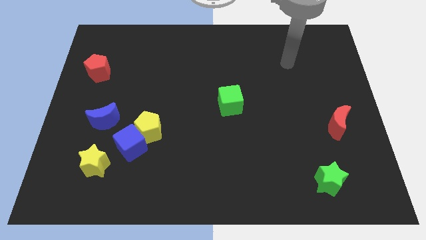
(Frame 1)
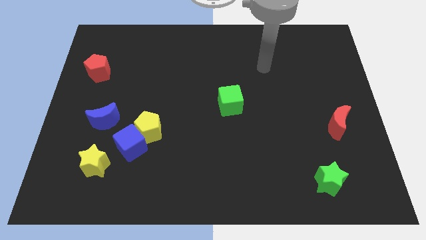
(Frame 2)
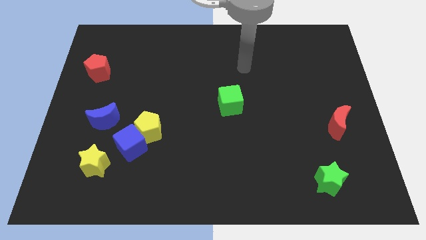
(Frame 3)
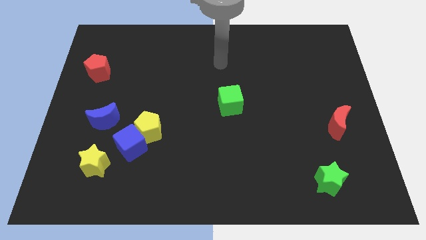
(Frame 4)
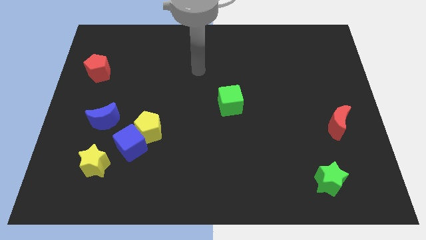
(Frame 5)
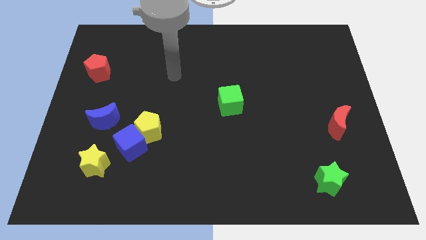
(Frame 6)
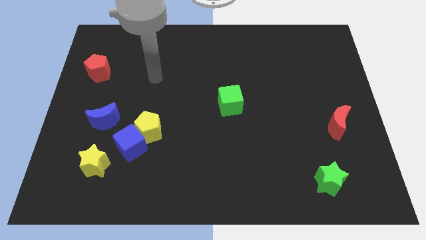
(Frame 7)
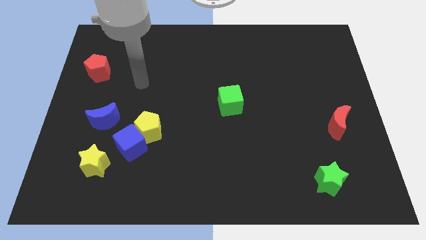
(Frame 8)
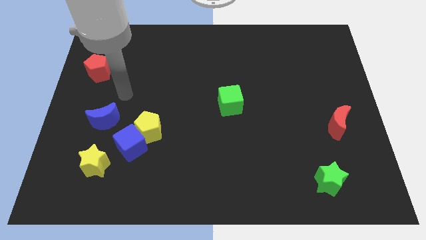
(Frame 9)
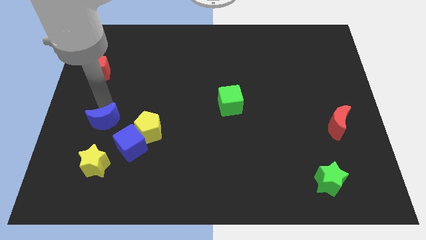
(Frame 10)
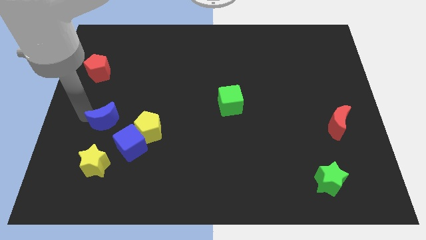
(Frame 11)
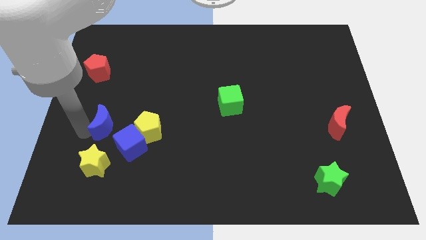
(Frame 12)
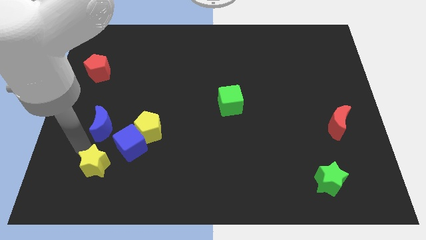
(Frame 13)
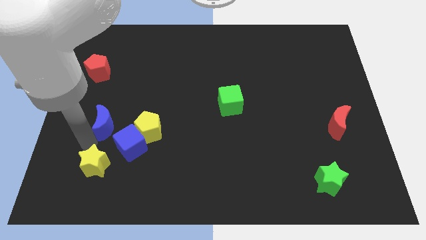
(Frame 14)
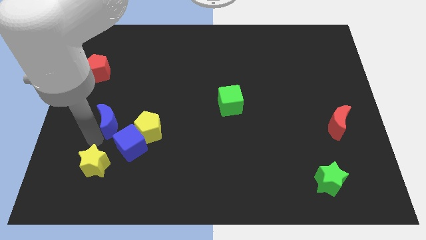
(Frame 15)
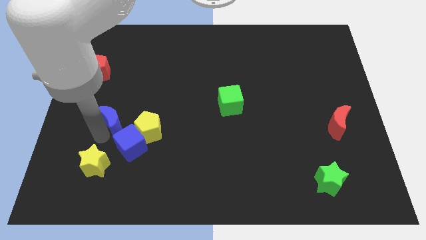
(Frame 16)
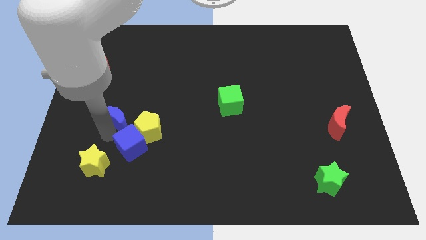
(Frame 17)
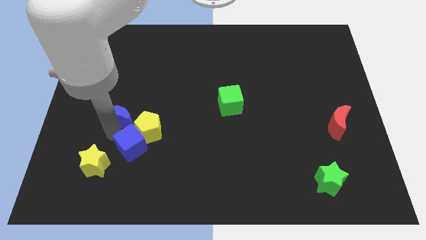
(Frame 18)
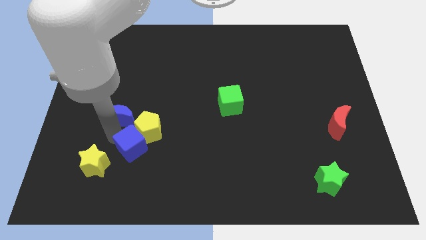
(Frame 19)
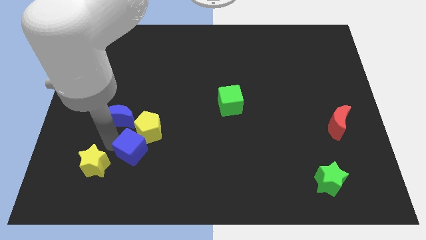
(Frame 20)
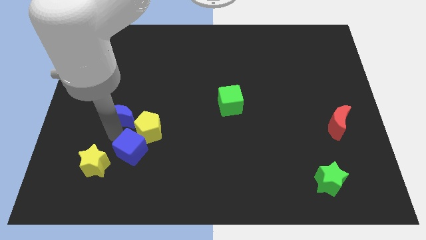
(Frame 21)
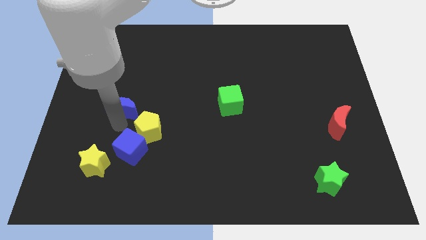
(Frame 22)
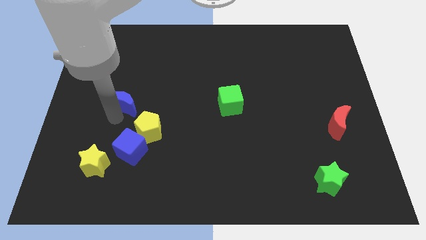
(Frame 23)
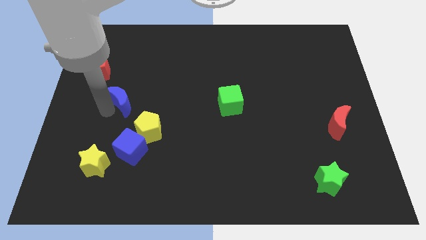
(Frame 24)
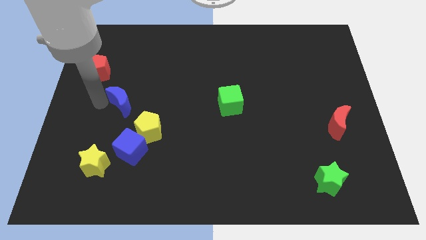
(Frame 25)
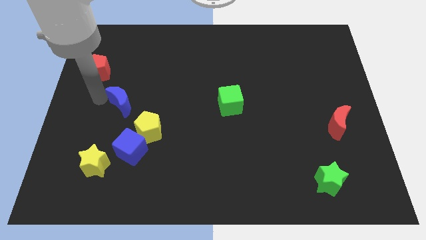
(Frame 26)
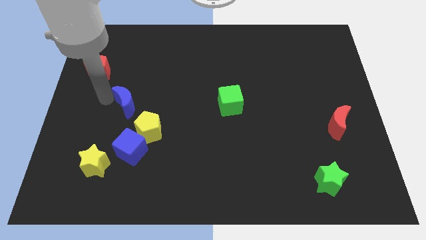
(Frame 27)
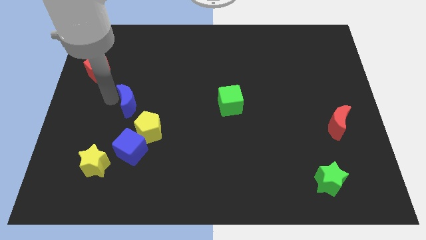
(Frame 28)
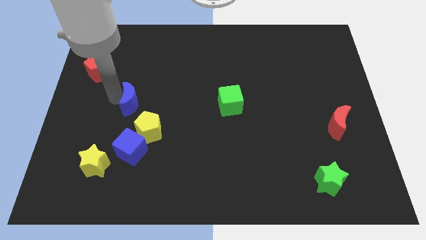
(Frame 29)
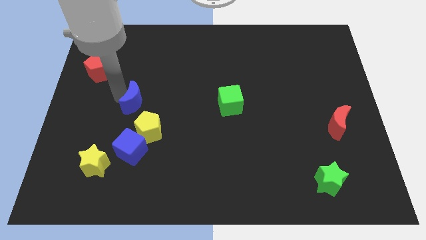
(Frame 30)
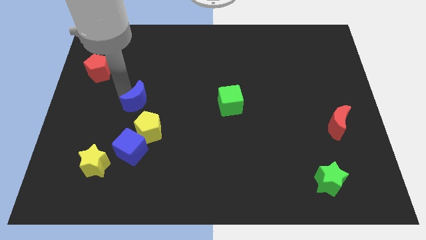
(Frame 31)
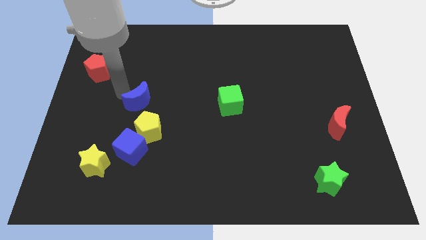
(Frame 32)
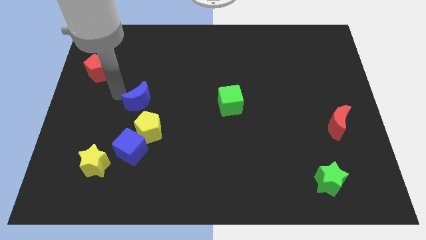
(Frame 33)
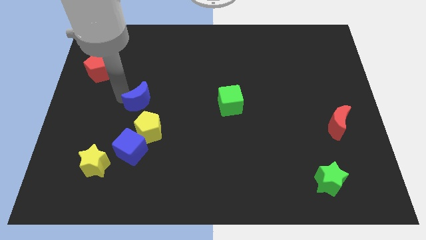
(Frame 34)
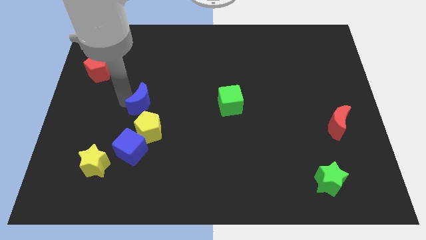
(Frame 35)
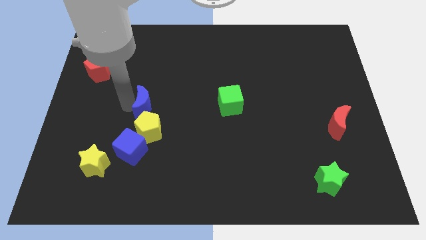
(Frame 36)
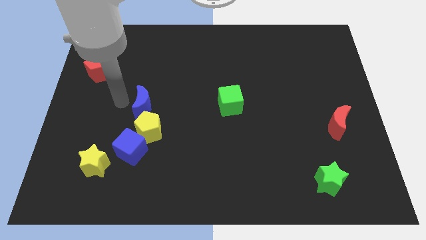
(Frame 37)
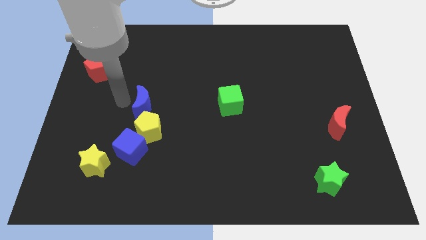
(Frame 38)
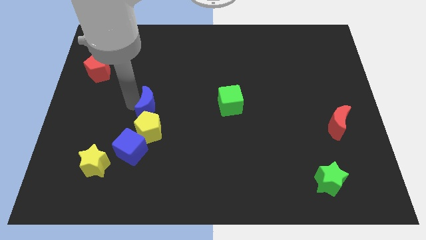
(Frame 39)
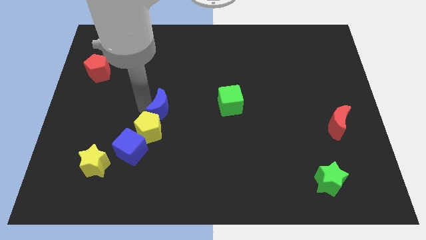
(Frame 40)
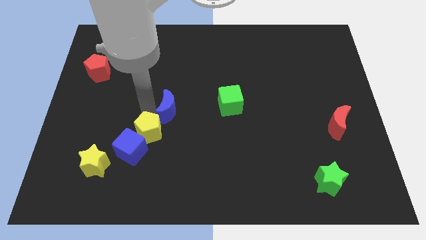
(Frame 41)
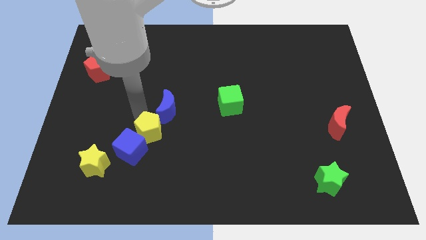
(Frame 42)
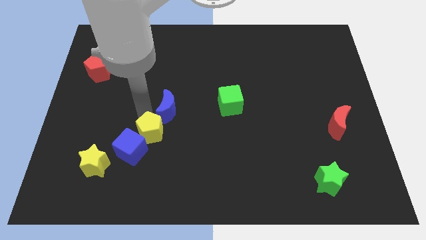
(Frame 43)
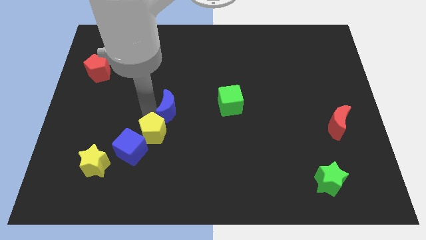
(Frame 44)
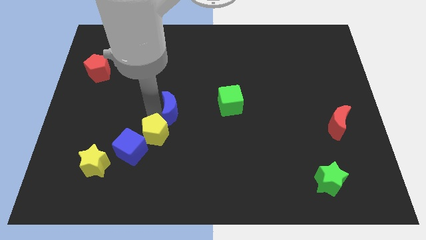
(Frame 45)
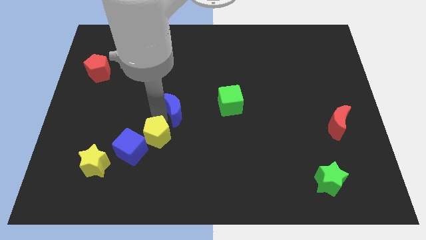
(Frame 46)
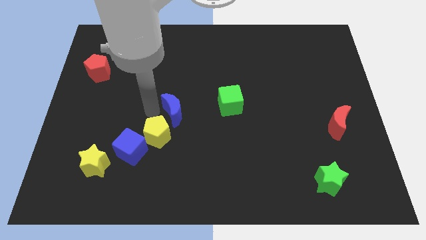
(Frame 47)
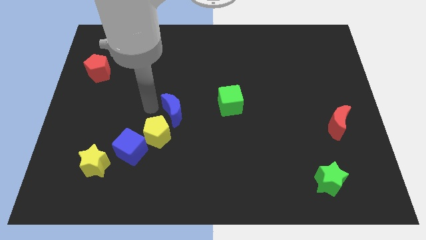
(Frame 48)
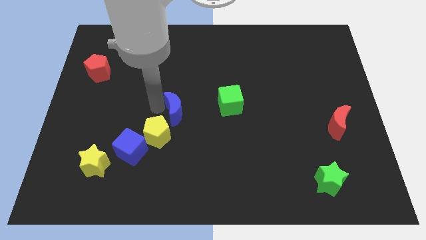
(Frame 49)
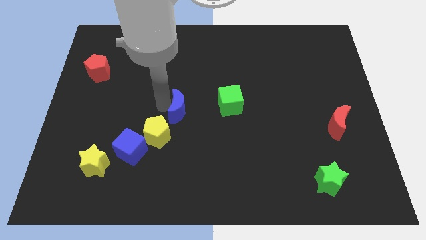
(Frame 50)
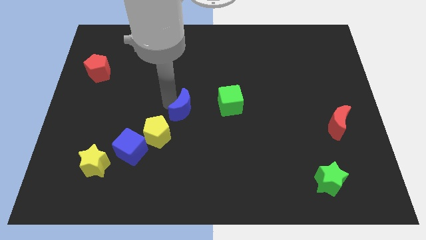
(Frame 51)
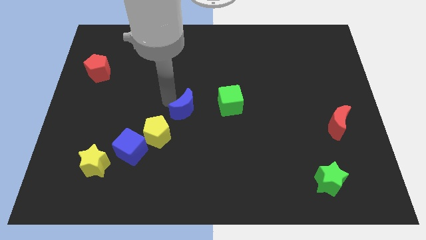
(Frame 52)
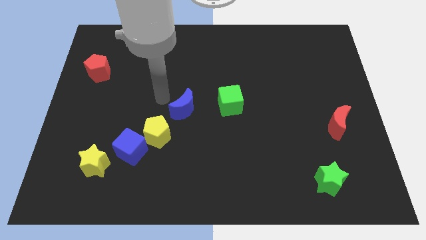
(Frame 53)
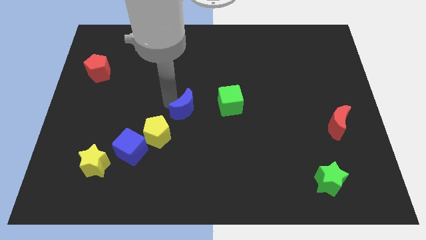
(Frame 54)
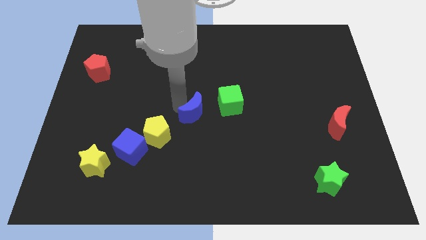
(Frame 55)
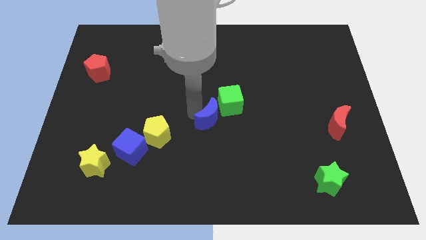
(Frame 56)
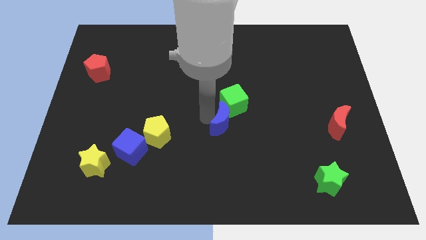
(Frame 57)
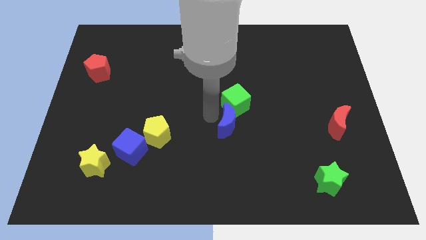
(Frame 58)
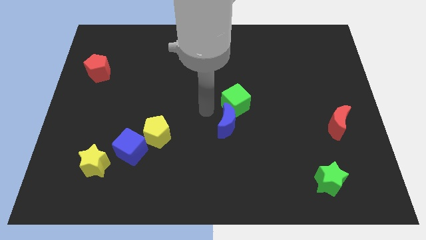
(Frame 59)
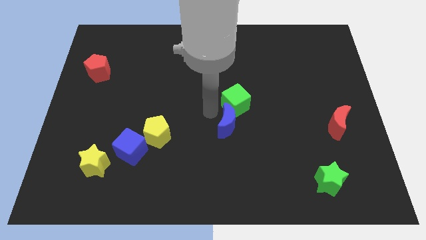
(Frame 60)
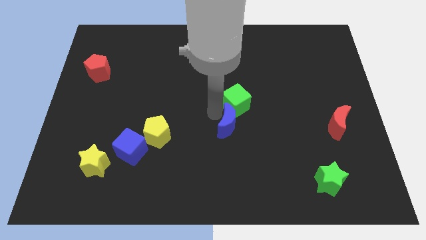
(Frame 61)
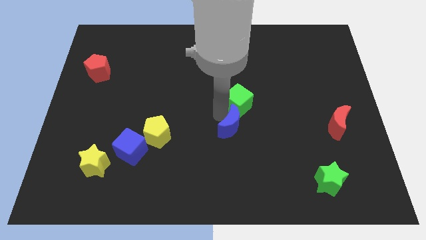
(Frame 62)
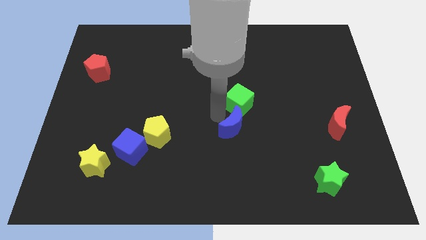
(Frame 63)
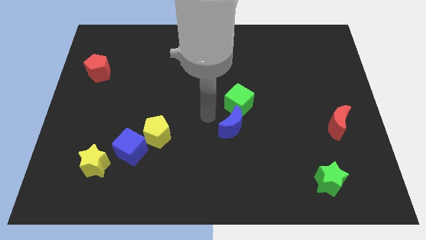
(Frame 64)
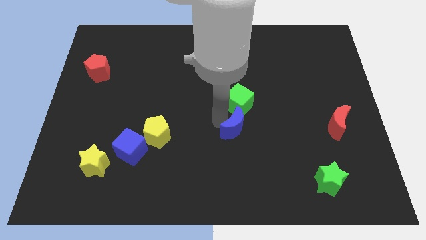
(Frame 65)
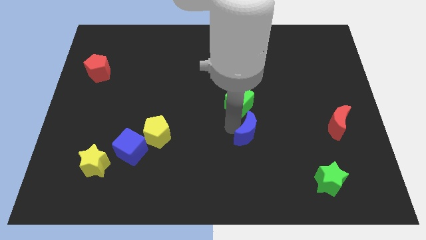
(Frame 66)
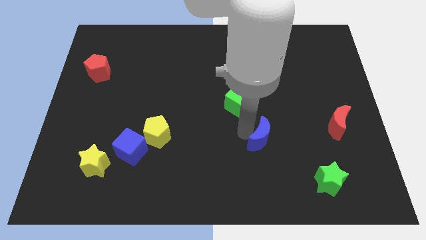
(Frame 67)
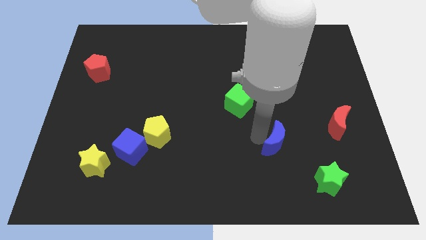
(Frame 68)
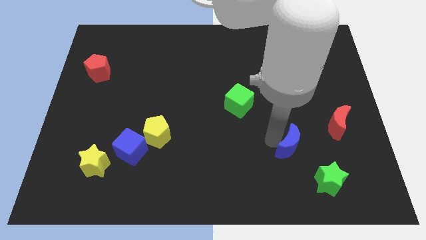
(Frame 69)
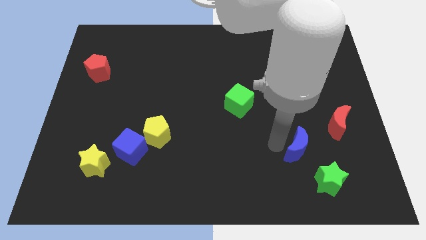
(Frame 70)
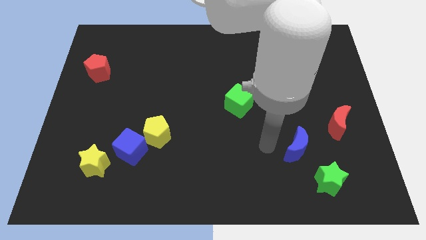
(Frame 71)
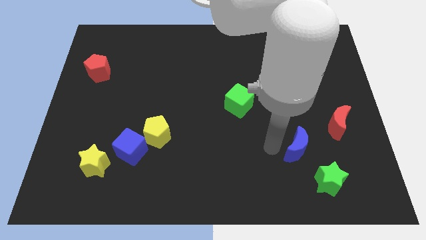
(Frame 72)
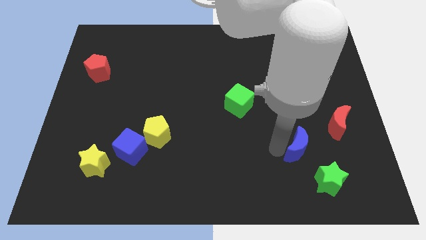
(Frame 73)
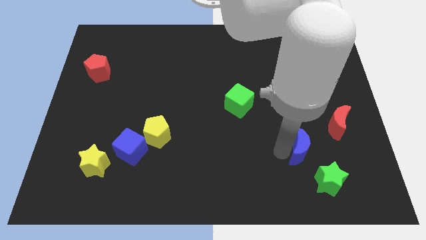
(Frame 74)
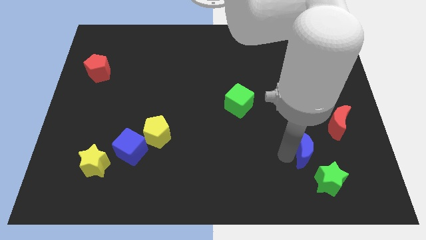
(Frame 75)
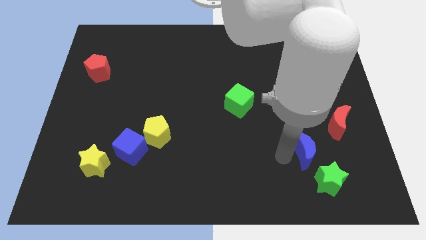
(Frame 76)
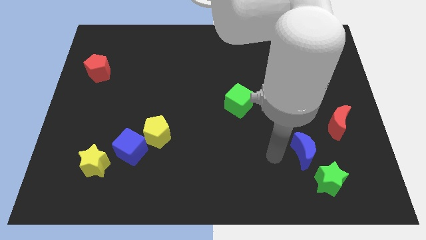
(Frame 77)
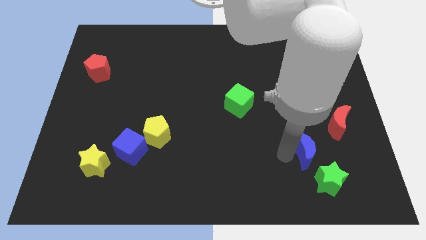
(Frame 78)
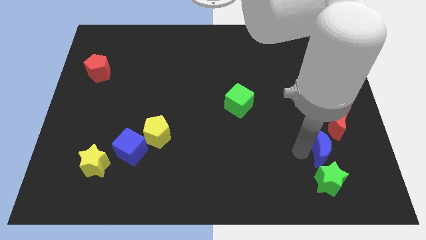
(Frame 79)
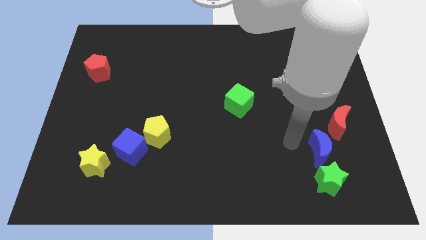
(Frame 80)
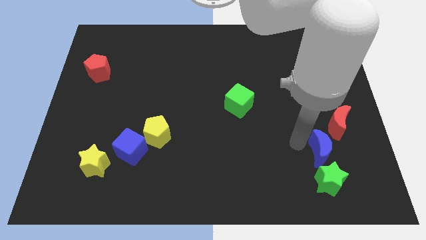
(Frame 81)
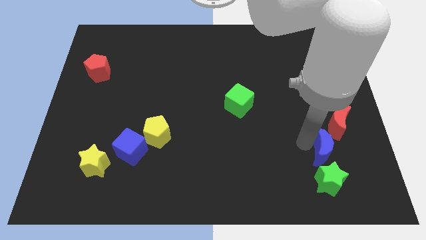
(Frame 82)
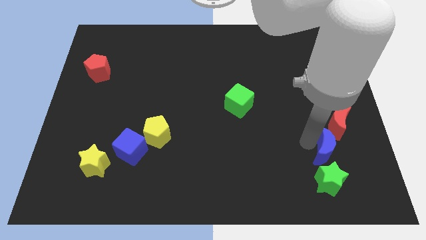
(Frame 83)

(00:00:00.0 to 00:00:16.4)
push the blue moon diagonally up and to the right of the green star
